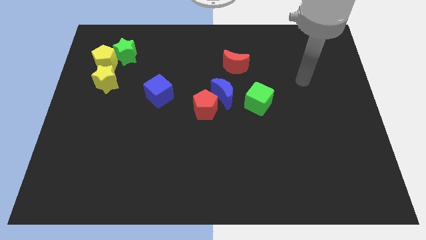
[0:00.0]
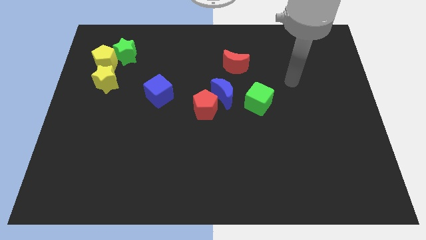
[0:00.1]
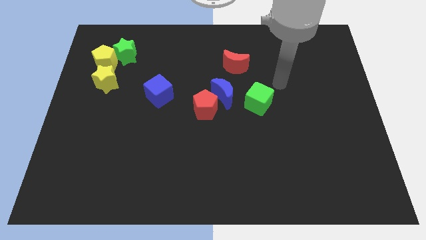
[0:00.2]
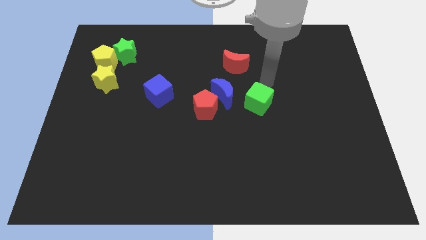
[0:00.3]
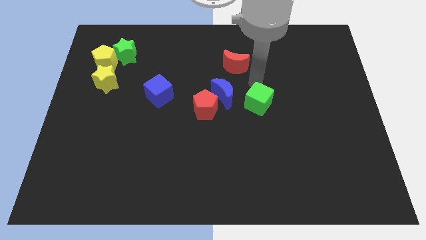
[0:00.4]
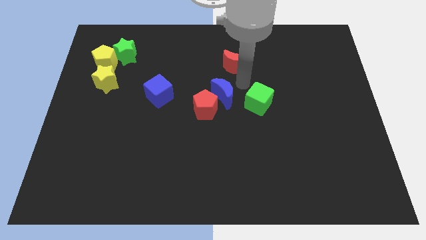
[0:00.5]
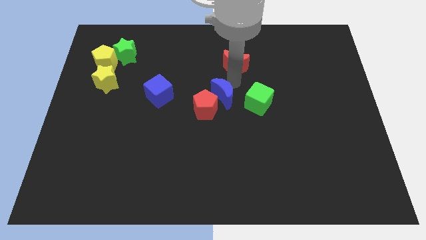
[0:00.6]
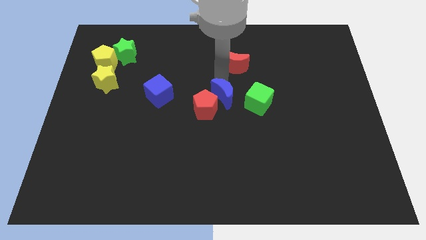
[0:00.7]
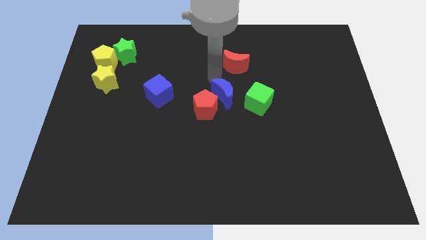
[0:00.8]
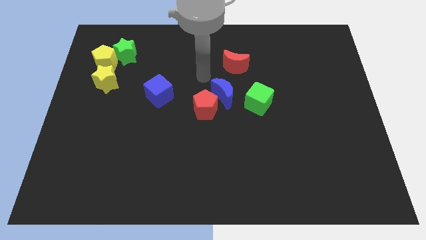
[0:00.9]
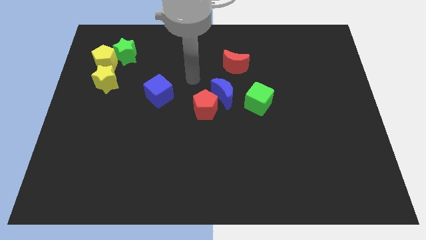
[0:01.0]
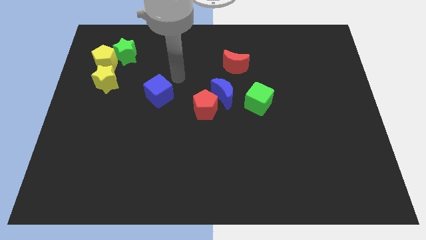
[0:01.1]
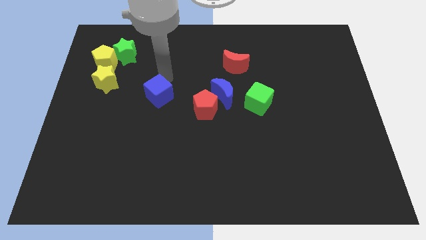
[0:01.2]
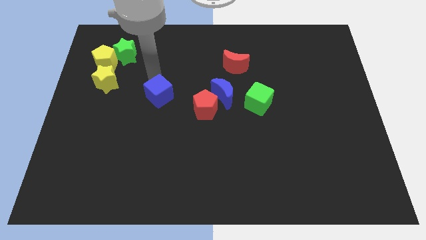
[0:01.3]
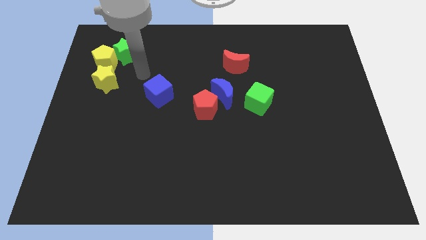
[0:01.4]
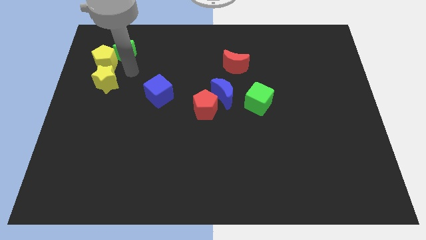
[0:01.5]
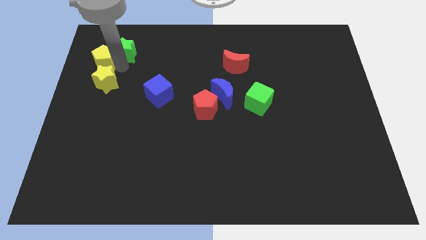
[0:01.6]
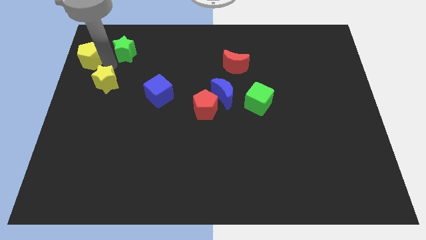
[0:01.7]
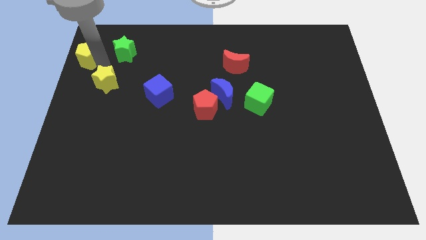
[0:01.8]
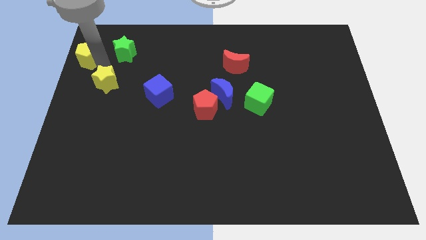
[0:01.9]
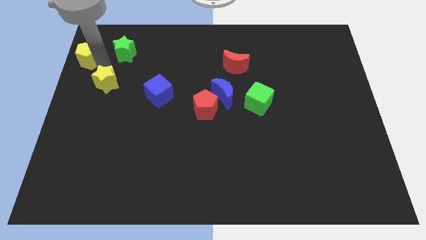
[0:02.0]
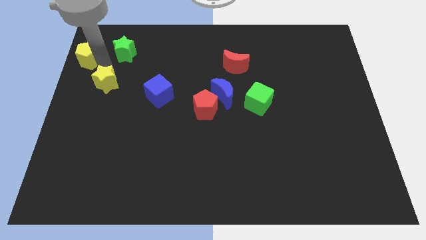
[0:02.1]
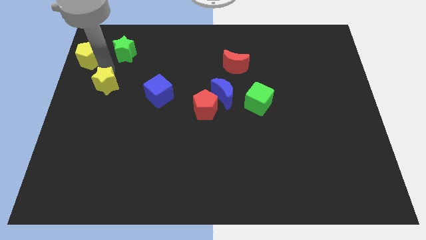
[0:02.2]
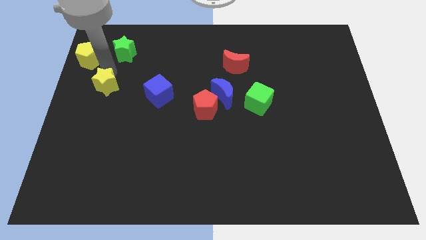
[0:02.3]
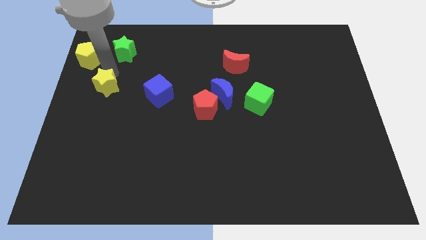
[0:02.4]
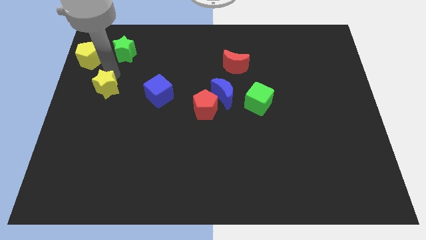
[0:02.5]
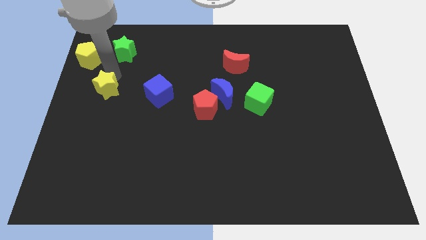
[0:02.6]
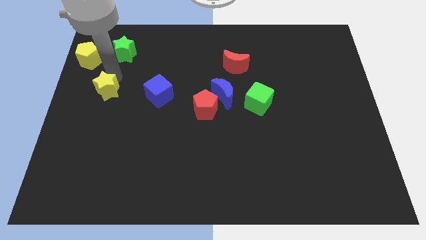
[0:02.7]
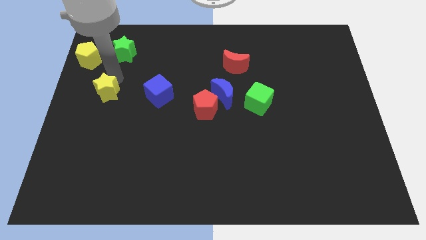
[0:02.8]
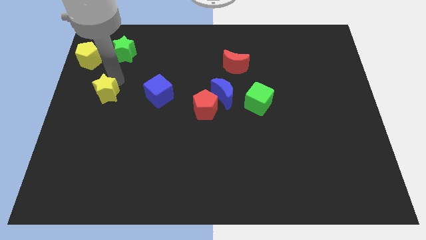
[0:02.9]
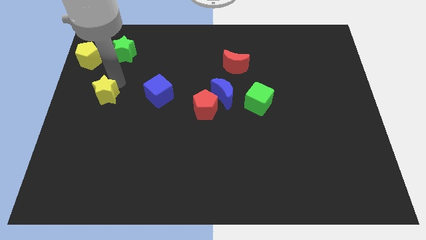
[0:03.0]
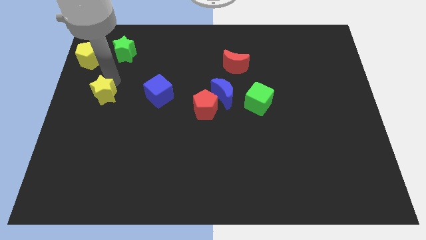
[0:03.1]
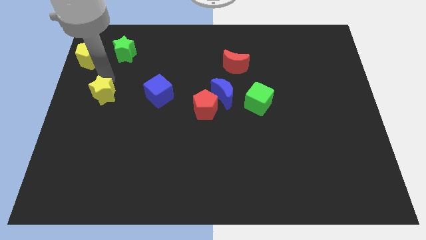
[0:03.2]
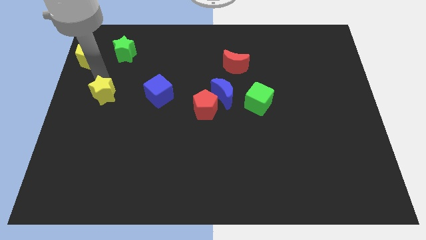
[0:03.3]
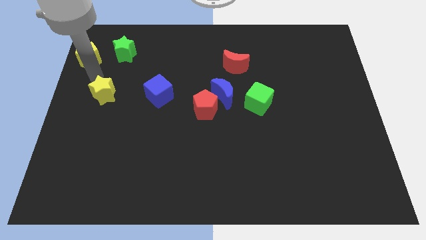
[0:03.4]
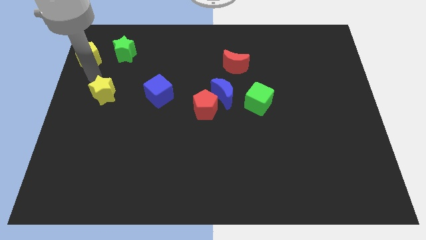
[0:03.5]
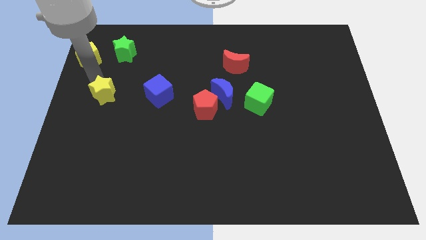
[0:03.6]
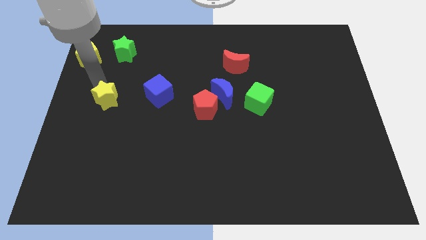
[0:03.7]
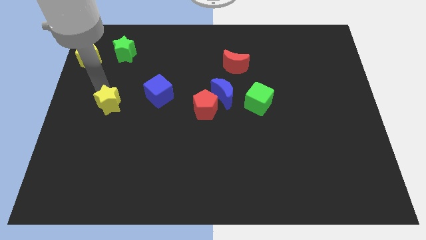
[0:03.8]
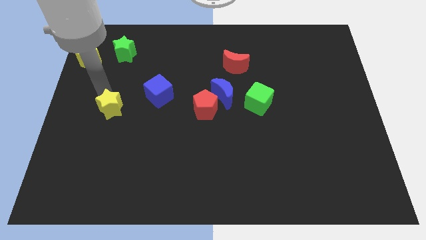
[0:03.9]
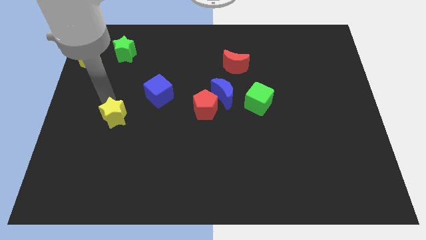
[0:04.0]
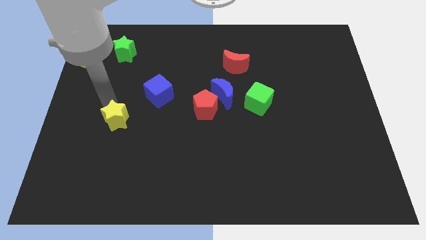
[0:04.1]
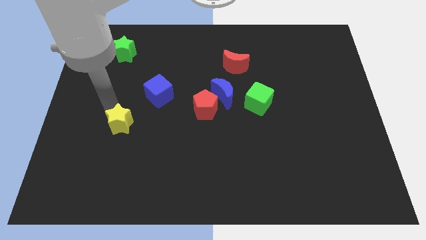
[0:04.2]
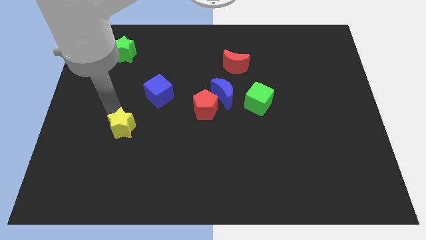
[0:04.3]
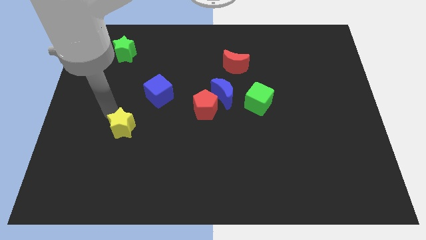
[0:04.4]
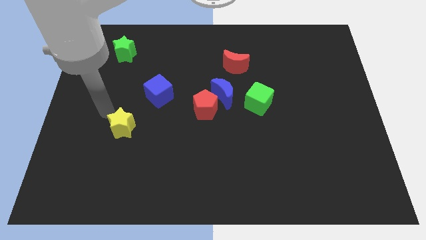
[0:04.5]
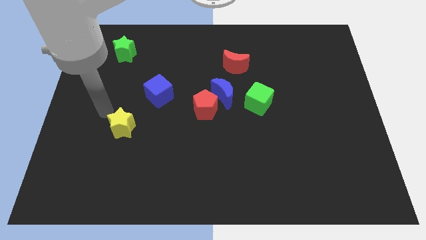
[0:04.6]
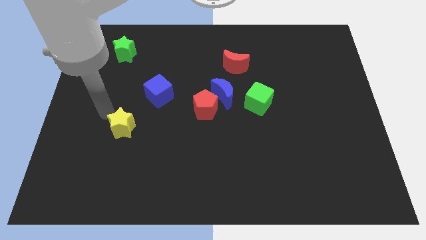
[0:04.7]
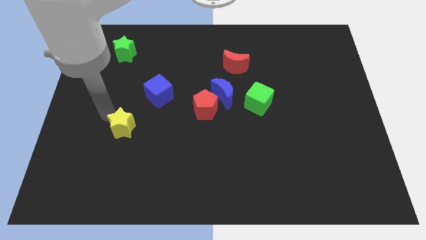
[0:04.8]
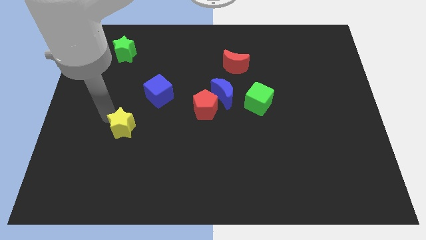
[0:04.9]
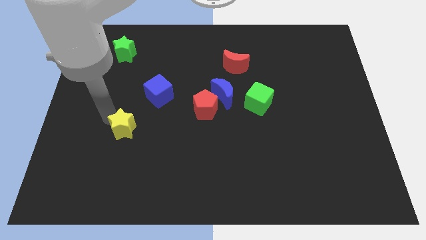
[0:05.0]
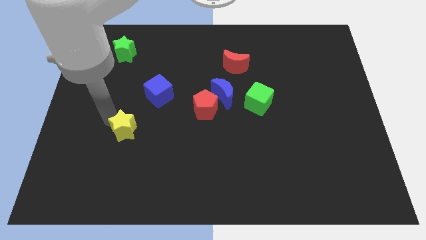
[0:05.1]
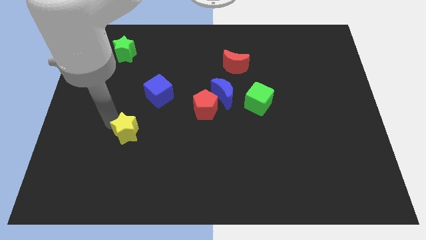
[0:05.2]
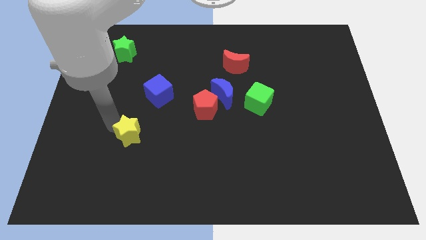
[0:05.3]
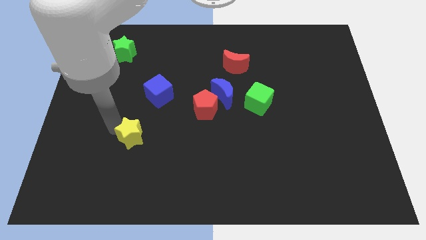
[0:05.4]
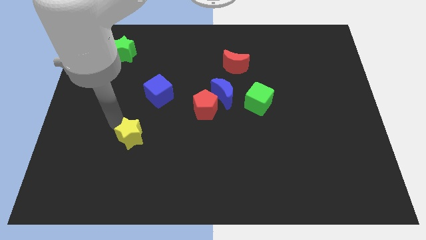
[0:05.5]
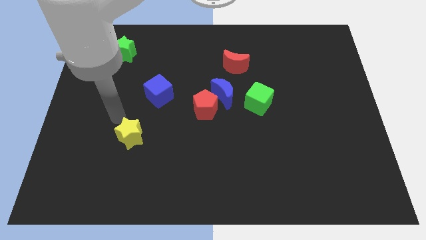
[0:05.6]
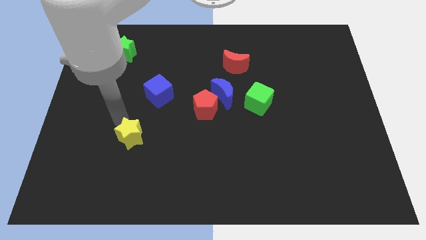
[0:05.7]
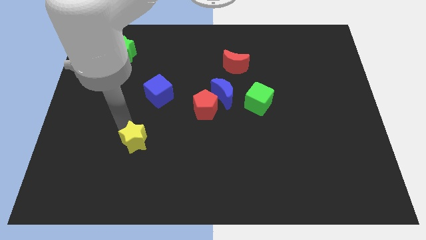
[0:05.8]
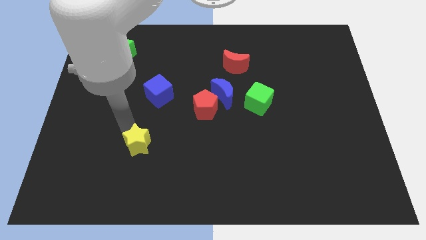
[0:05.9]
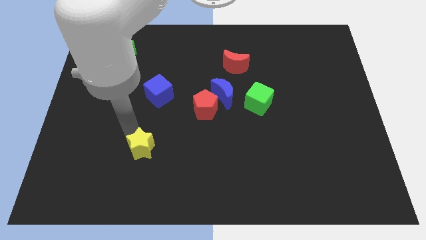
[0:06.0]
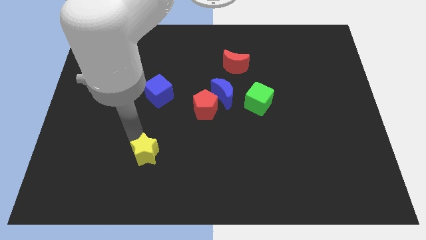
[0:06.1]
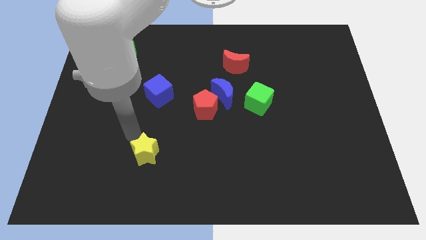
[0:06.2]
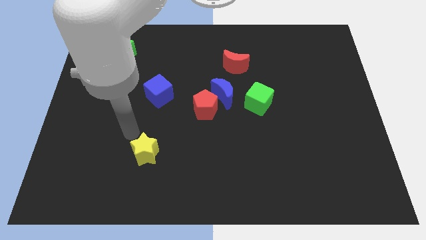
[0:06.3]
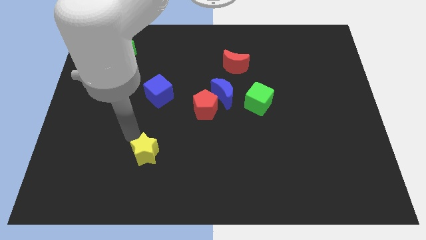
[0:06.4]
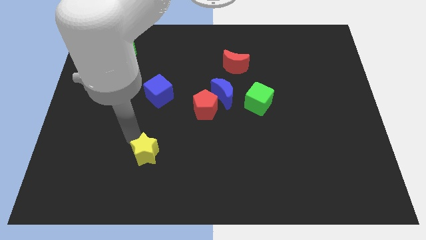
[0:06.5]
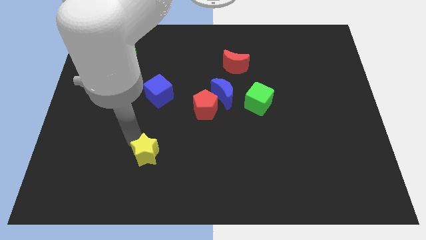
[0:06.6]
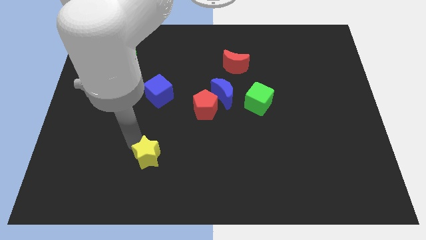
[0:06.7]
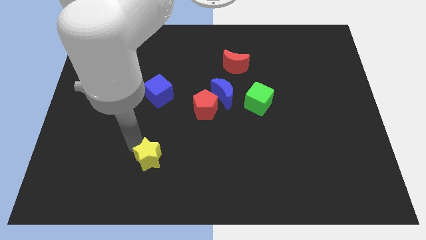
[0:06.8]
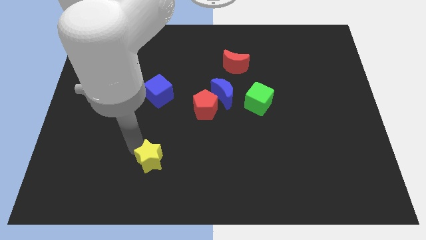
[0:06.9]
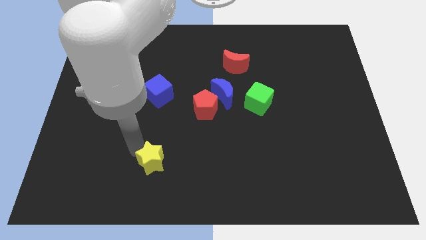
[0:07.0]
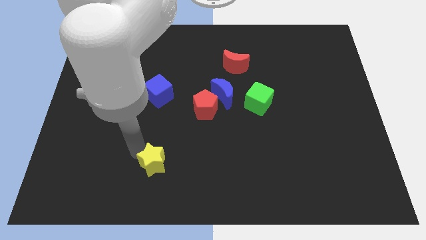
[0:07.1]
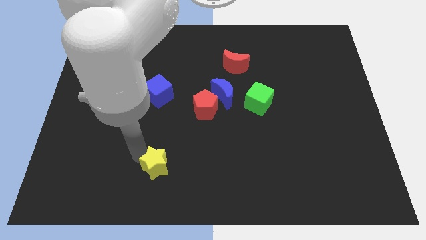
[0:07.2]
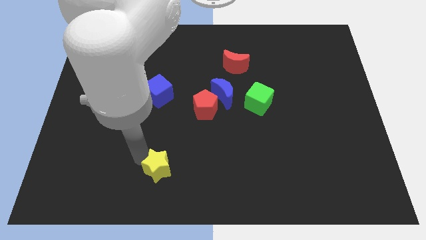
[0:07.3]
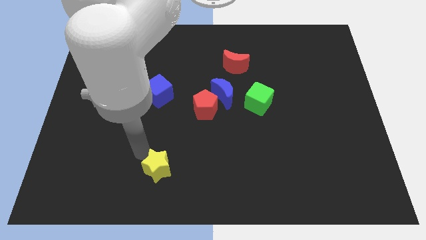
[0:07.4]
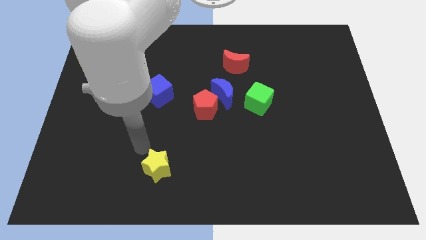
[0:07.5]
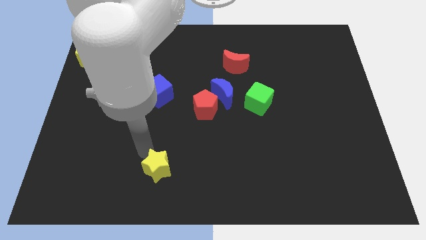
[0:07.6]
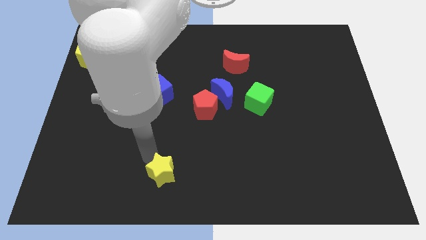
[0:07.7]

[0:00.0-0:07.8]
slide the yellow star to the bottom
